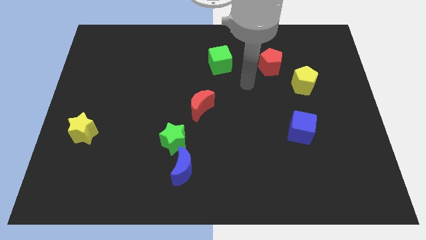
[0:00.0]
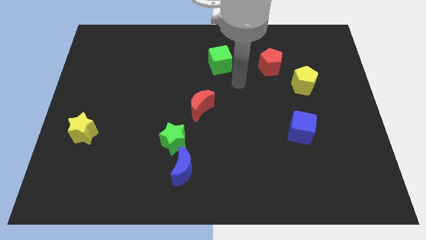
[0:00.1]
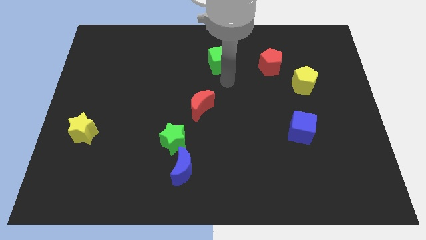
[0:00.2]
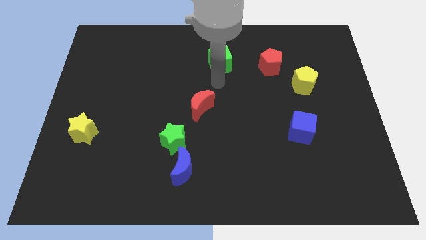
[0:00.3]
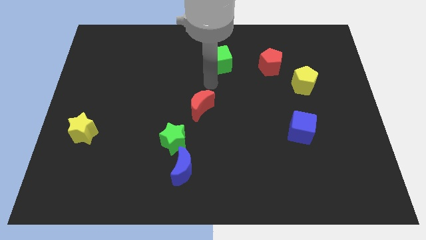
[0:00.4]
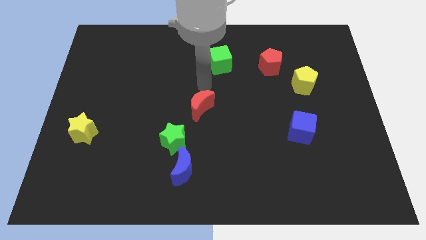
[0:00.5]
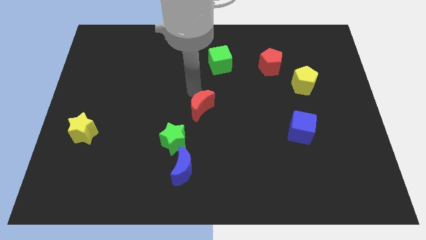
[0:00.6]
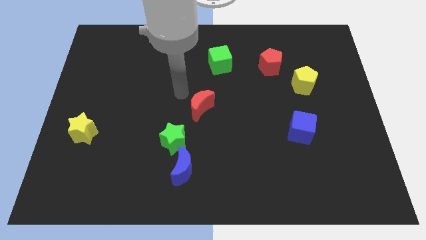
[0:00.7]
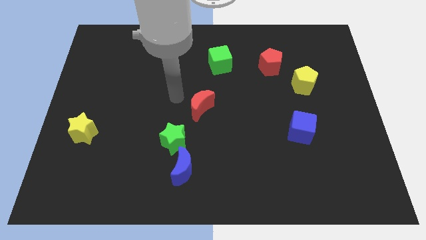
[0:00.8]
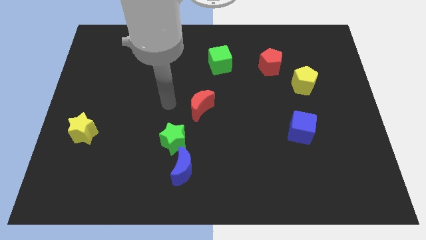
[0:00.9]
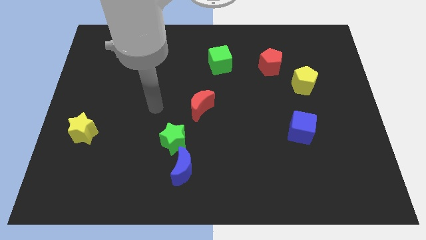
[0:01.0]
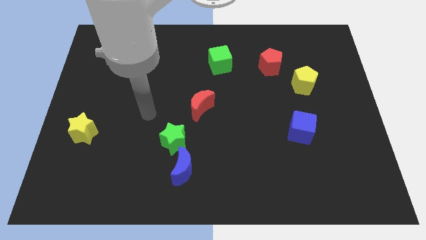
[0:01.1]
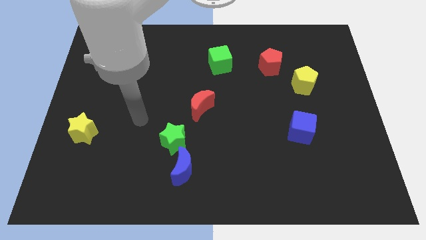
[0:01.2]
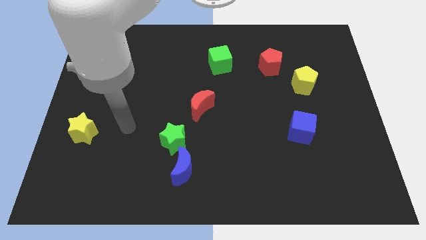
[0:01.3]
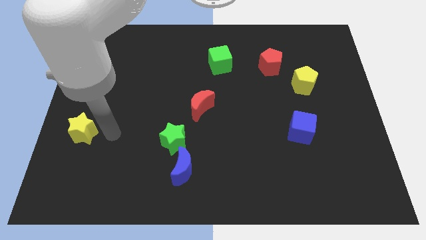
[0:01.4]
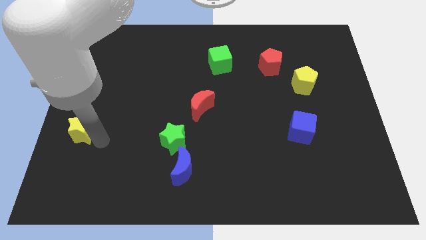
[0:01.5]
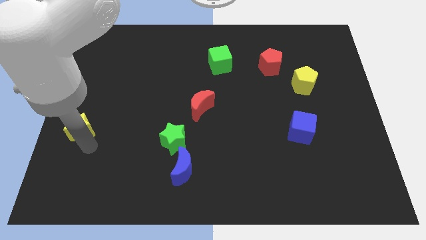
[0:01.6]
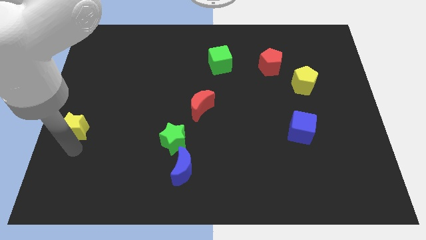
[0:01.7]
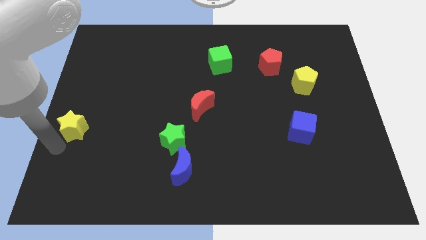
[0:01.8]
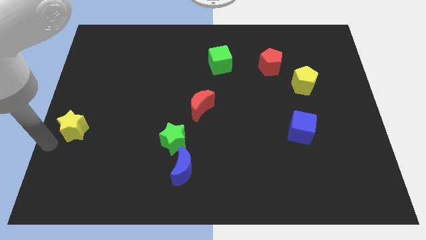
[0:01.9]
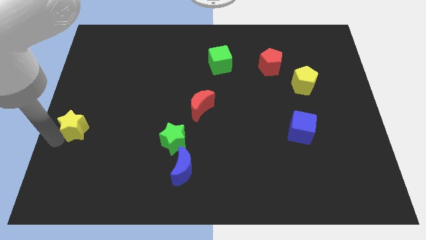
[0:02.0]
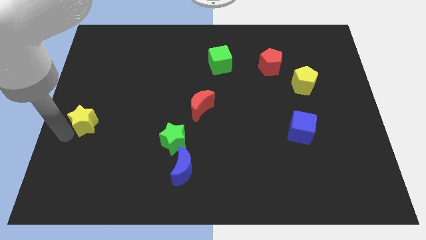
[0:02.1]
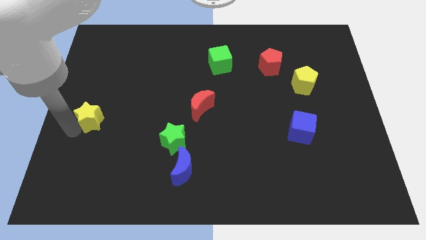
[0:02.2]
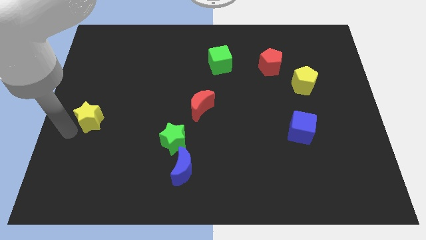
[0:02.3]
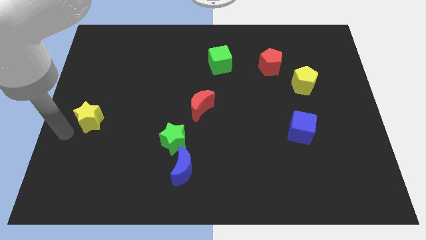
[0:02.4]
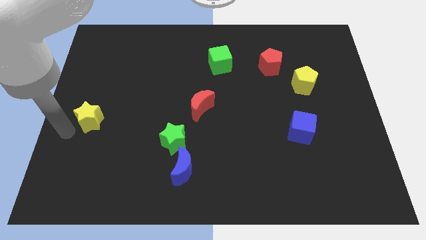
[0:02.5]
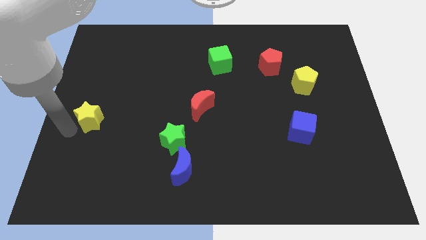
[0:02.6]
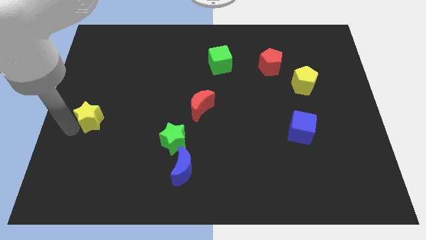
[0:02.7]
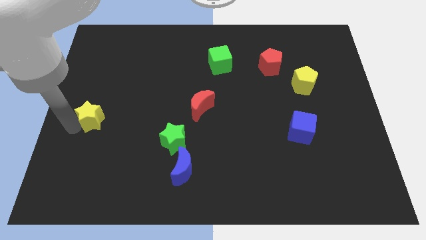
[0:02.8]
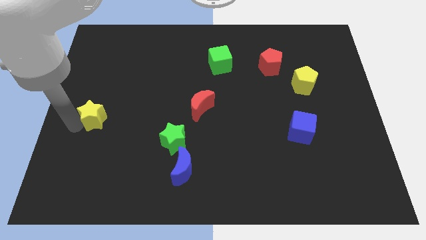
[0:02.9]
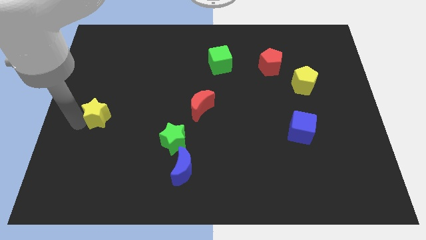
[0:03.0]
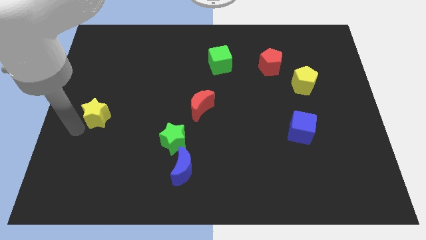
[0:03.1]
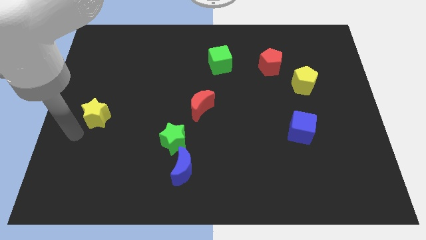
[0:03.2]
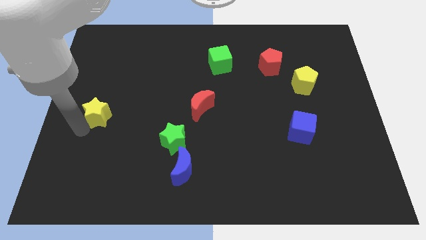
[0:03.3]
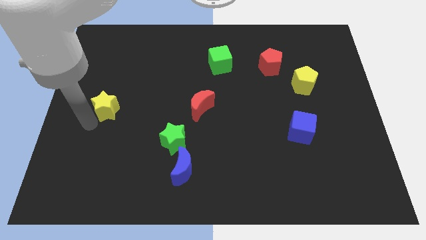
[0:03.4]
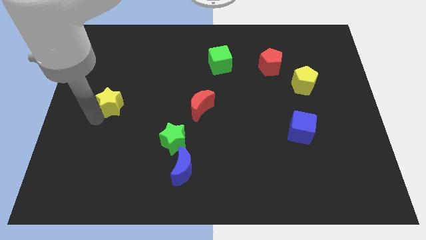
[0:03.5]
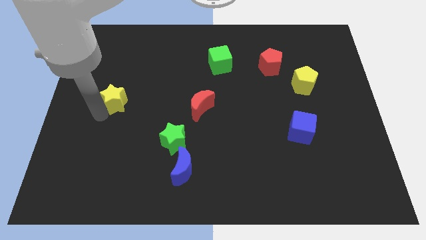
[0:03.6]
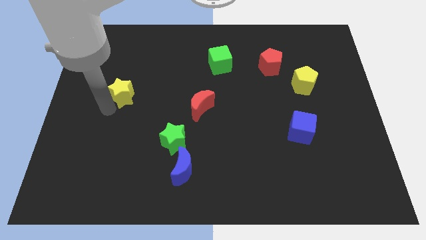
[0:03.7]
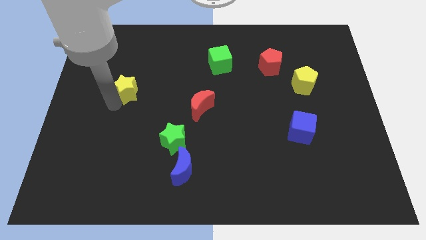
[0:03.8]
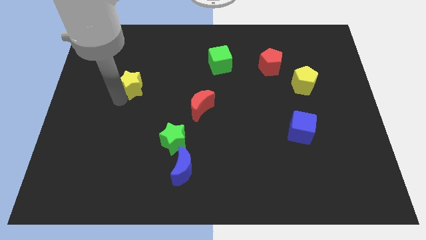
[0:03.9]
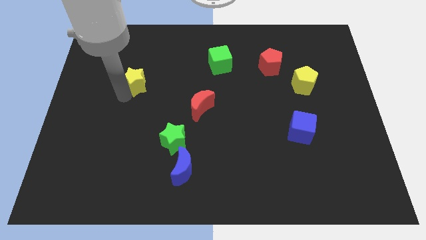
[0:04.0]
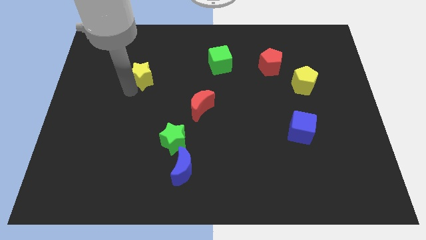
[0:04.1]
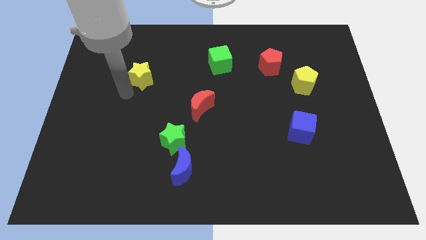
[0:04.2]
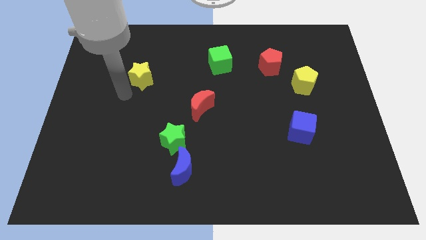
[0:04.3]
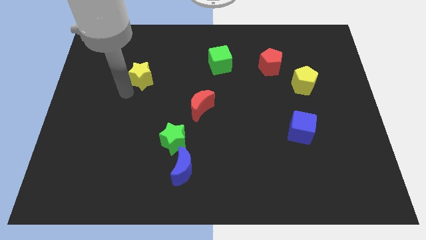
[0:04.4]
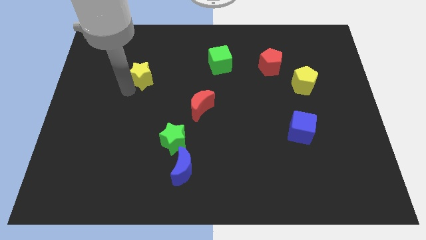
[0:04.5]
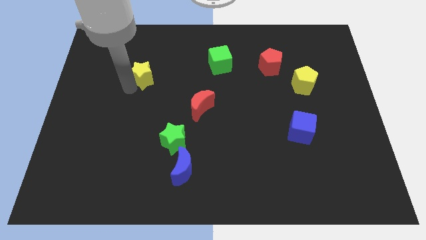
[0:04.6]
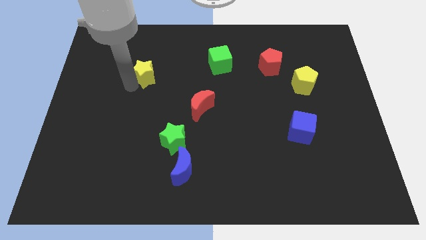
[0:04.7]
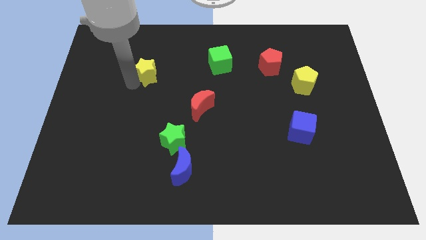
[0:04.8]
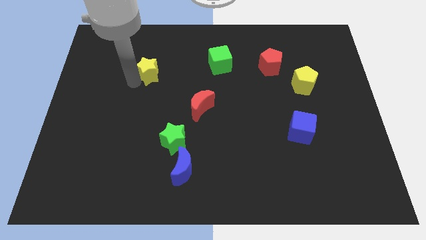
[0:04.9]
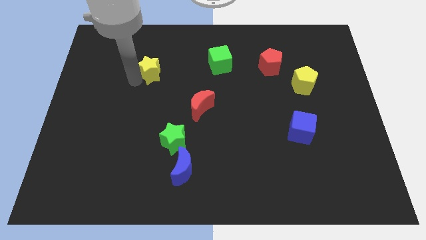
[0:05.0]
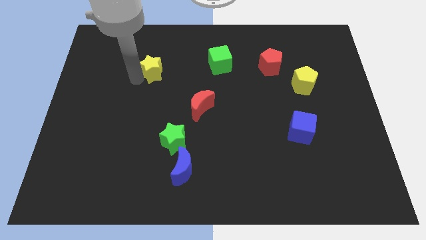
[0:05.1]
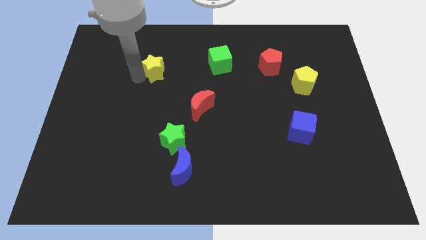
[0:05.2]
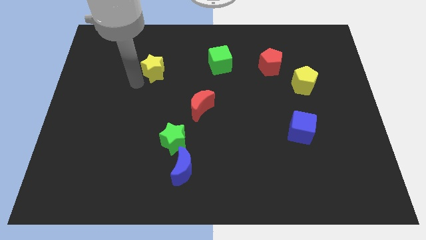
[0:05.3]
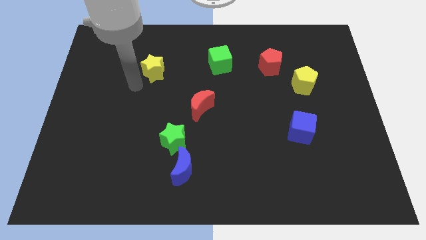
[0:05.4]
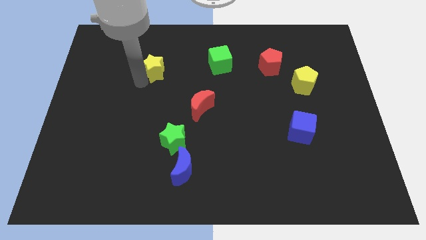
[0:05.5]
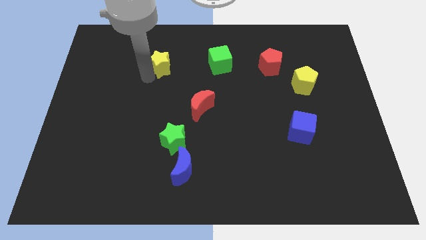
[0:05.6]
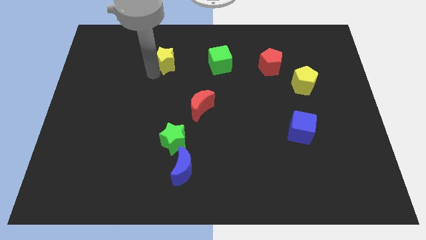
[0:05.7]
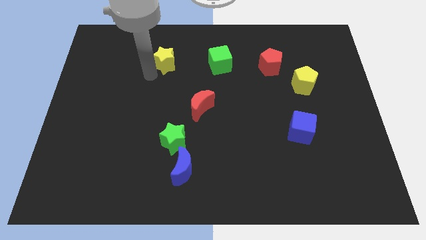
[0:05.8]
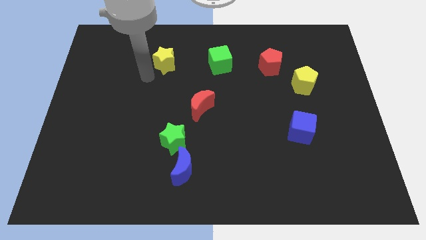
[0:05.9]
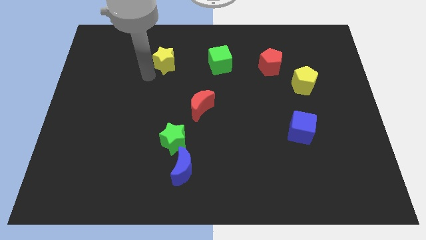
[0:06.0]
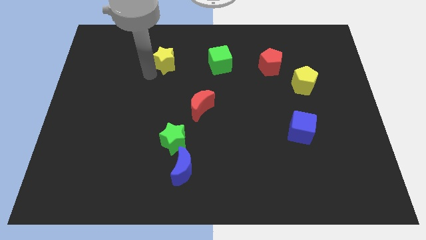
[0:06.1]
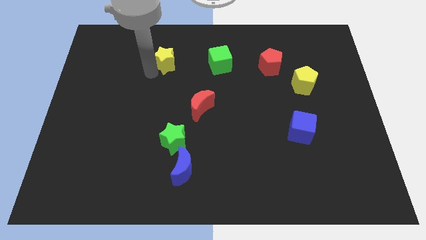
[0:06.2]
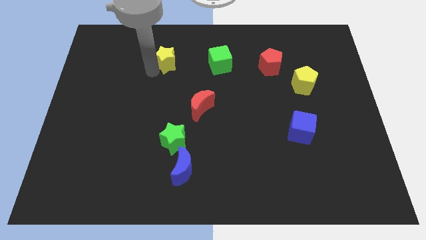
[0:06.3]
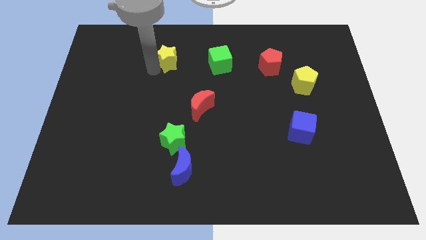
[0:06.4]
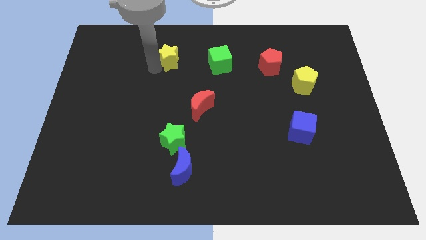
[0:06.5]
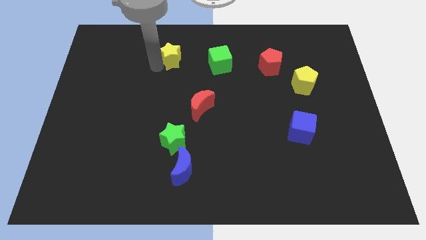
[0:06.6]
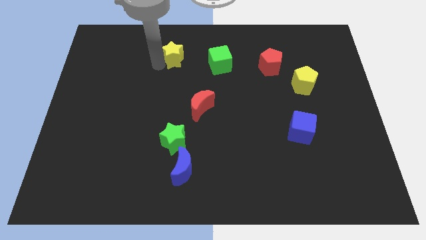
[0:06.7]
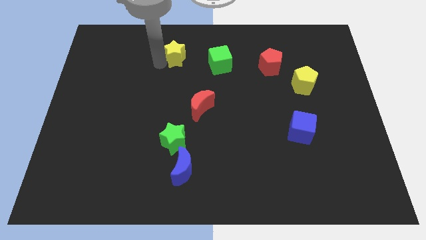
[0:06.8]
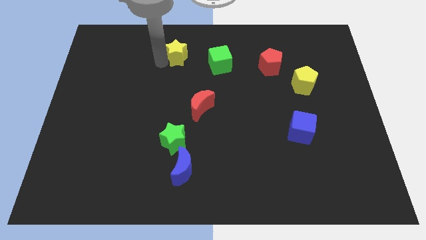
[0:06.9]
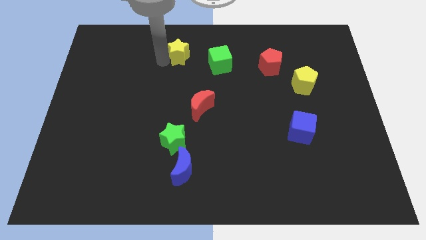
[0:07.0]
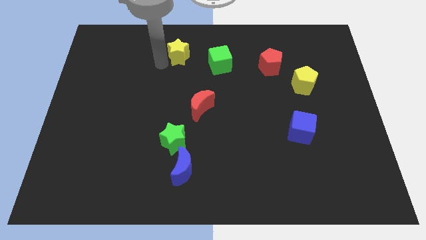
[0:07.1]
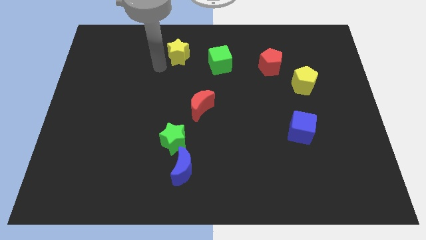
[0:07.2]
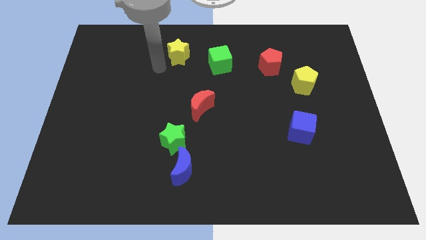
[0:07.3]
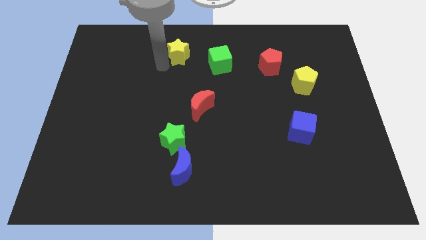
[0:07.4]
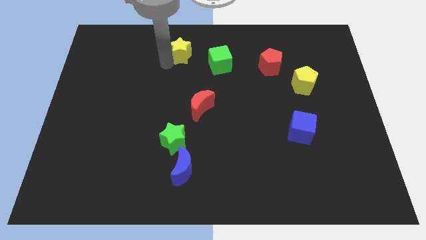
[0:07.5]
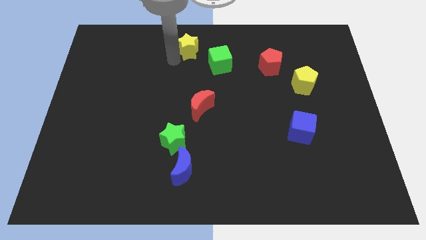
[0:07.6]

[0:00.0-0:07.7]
push the yellow star to the top side
